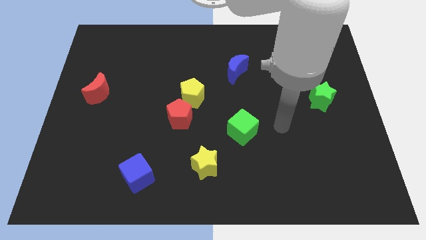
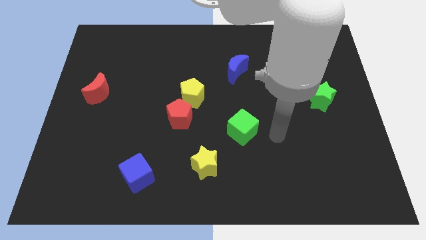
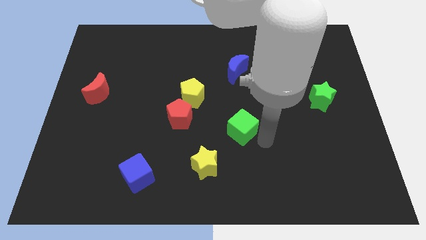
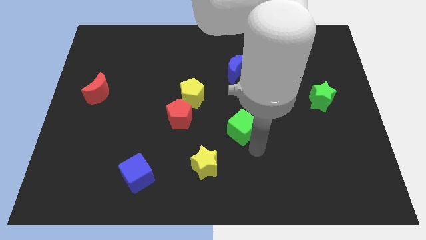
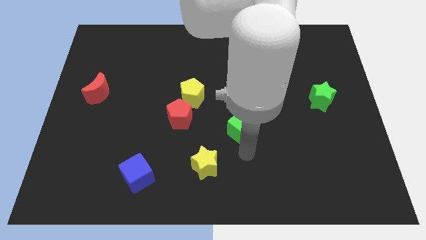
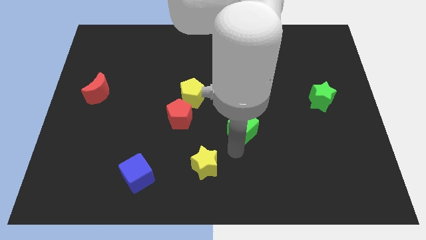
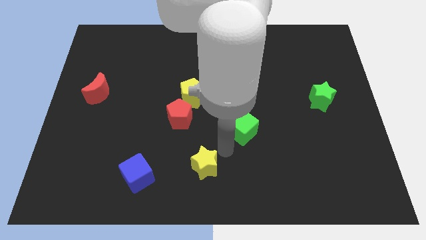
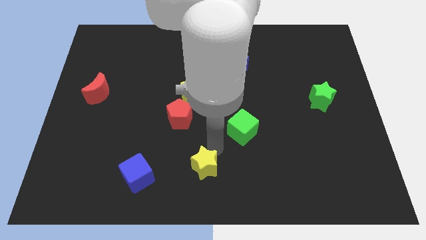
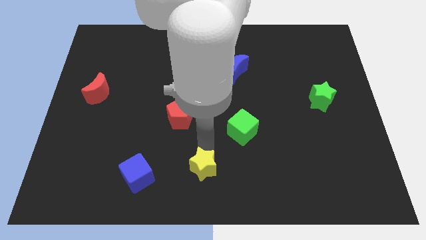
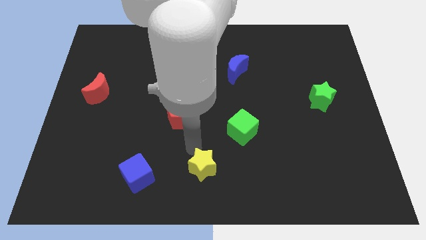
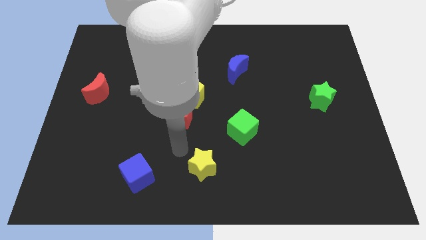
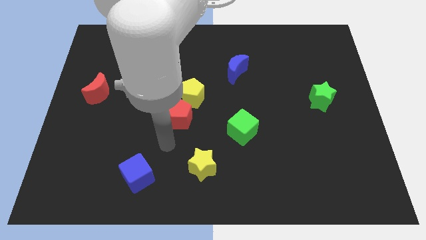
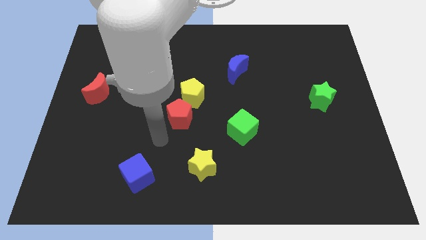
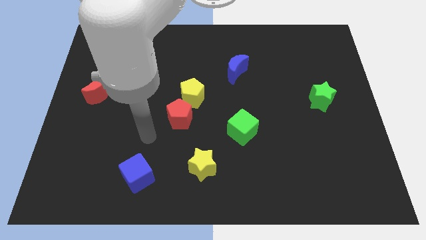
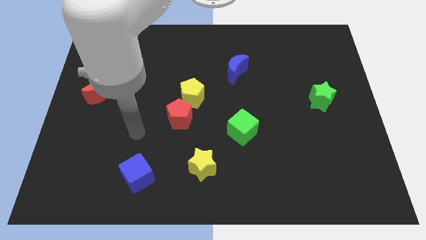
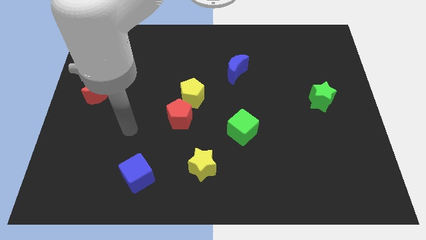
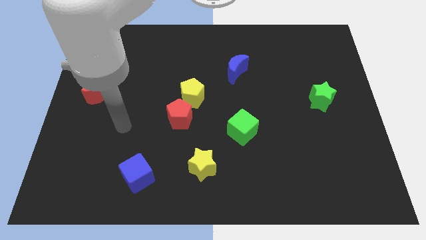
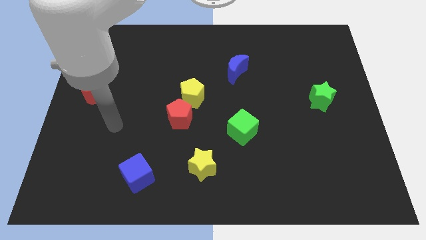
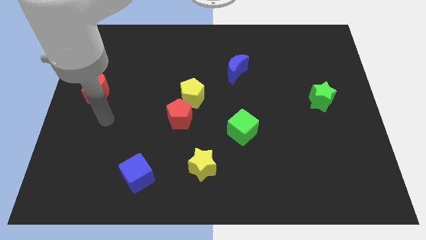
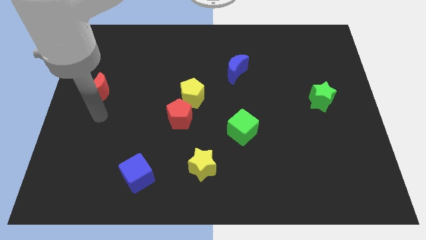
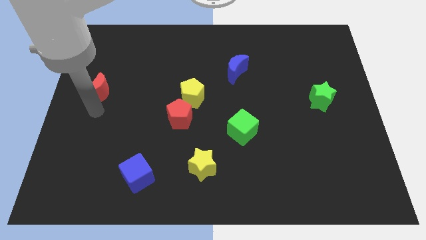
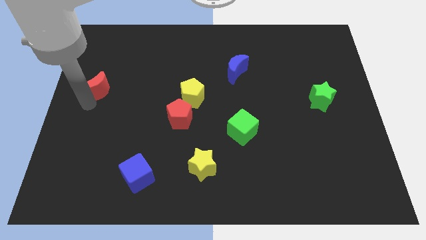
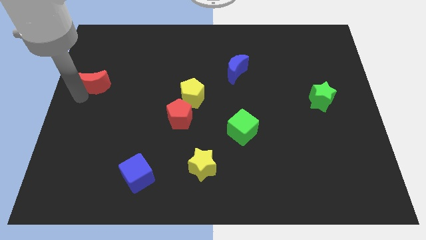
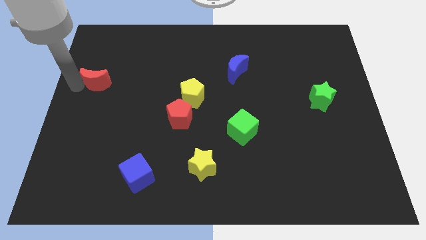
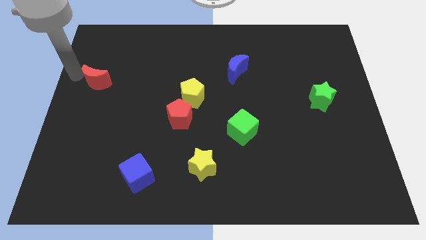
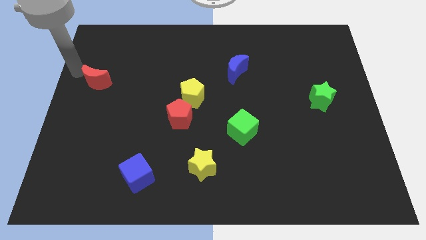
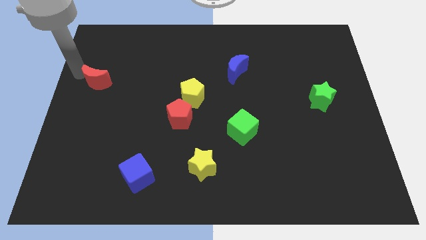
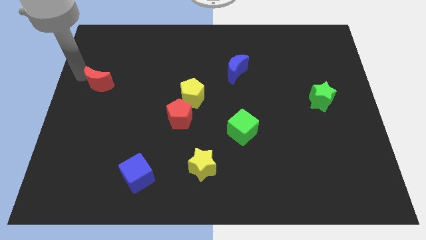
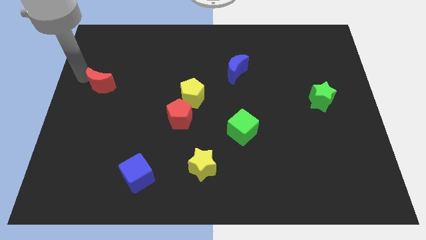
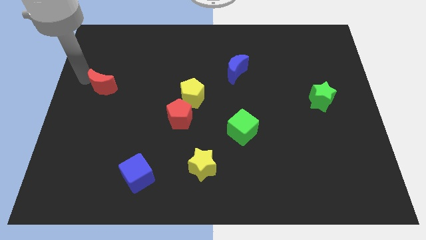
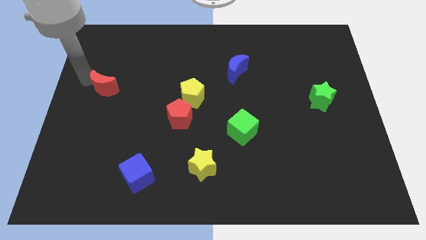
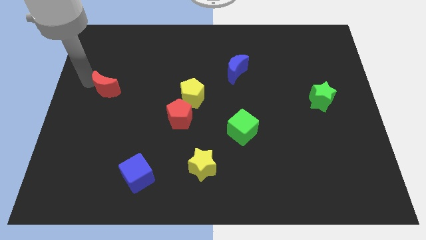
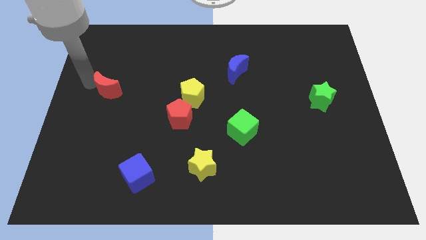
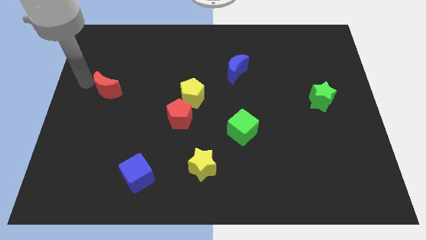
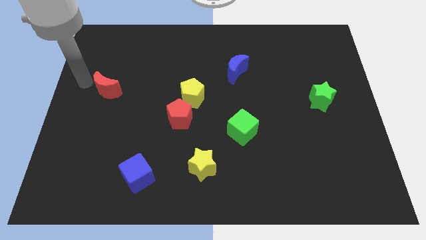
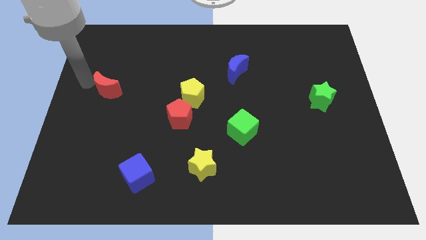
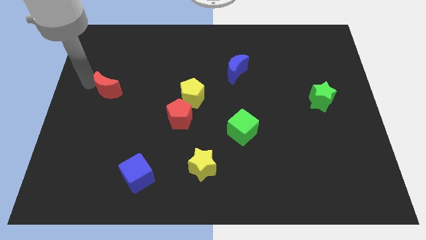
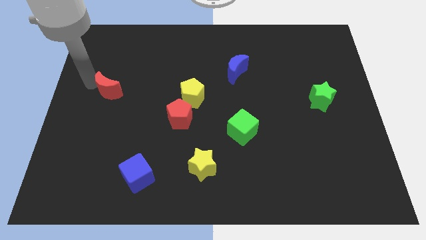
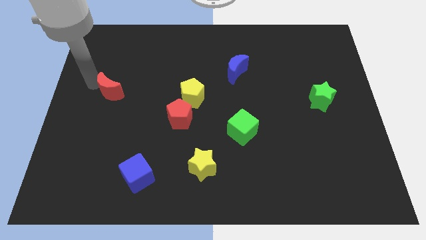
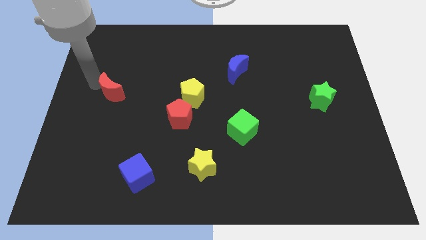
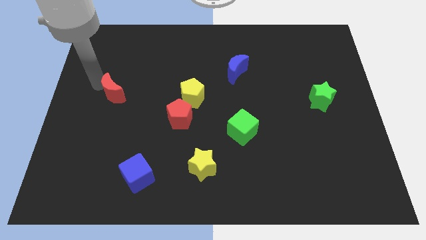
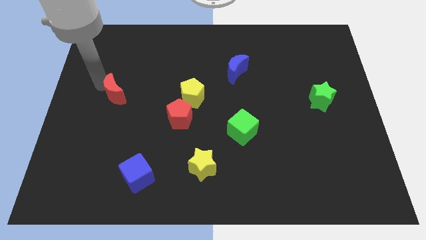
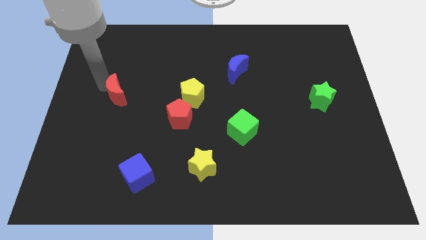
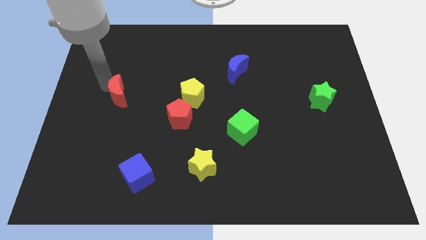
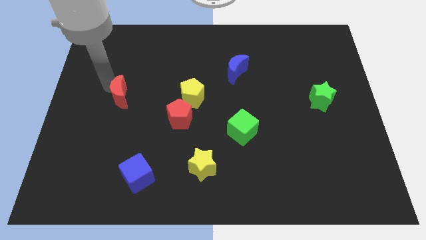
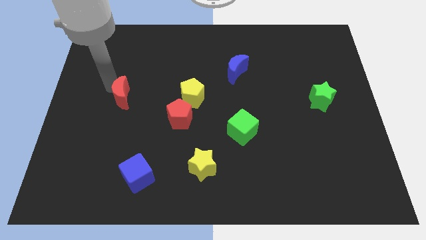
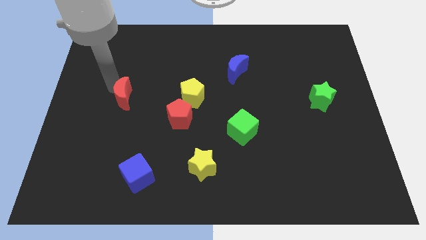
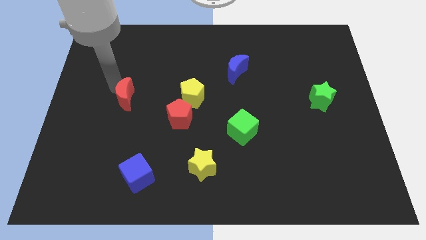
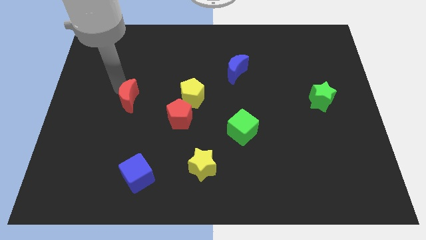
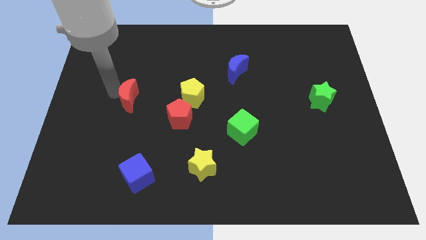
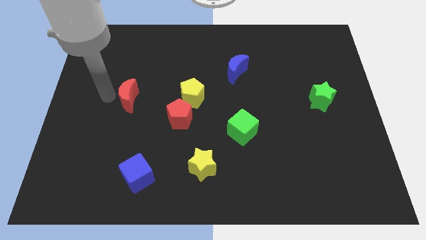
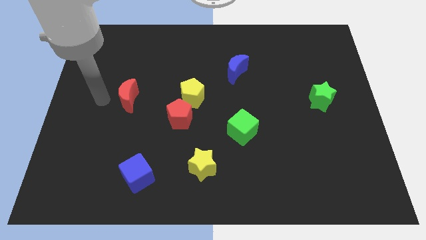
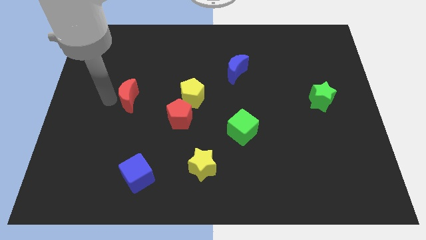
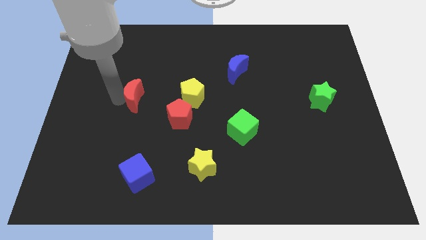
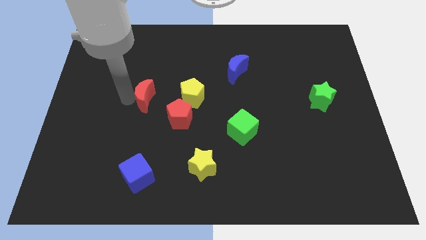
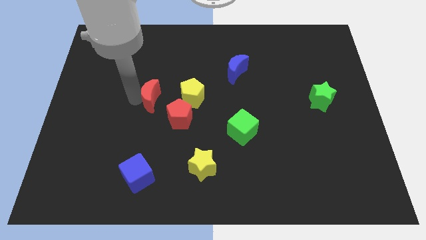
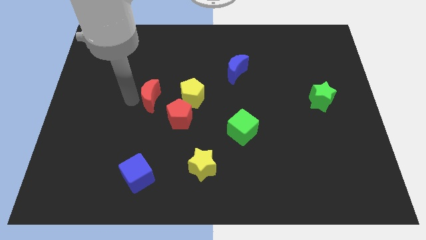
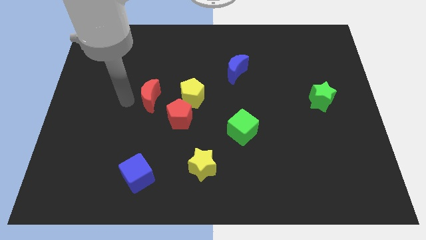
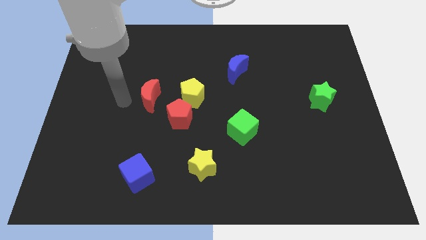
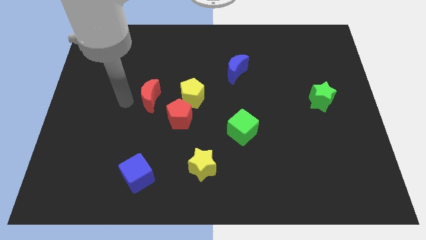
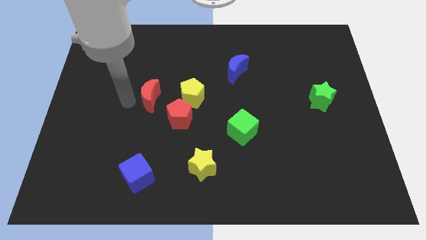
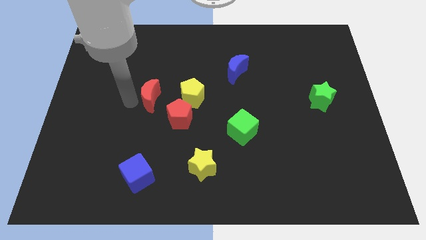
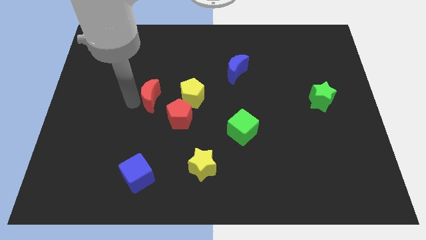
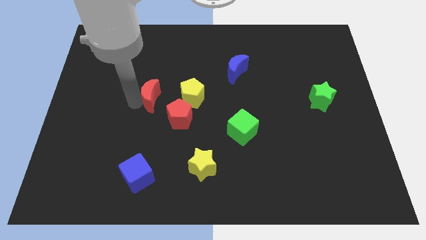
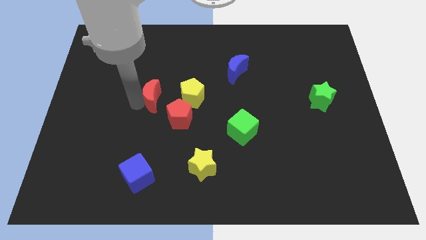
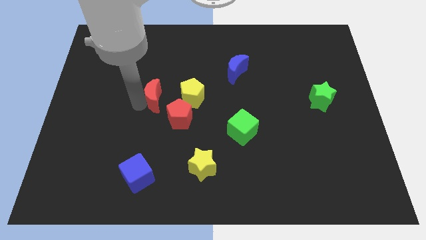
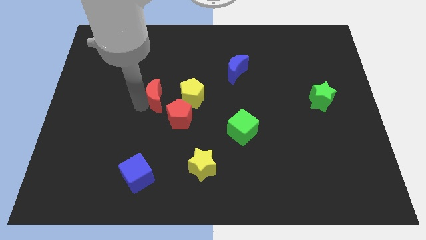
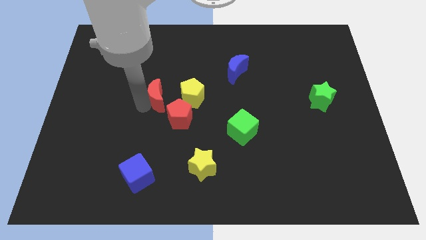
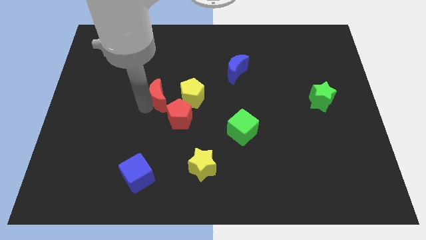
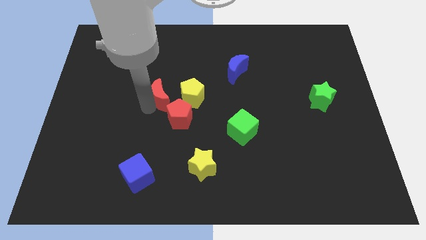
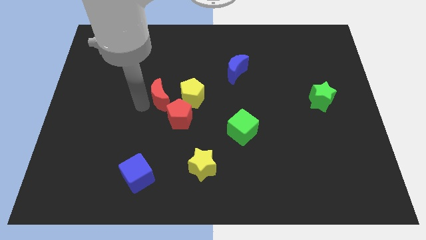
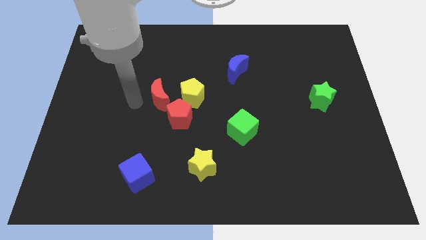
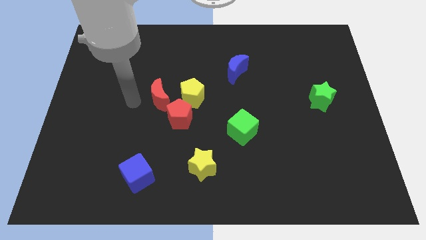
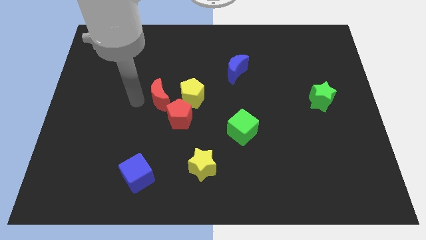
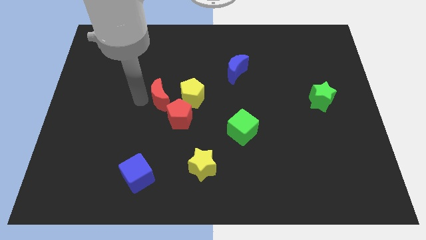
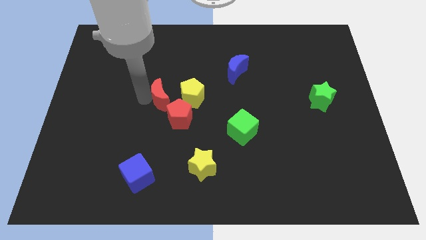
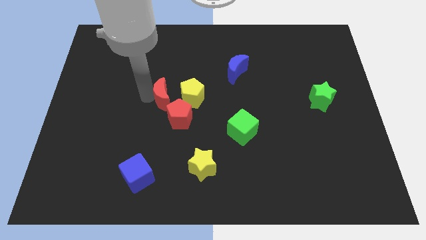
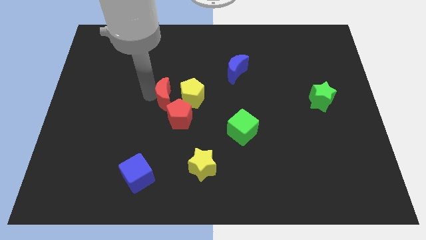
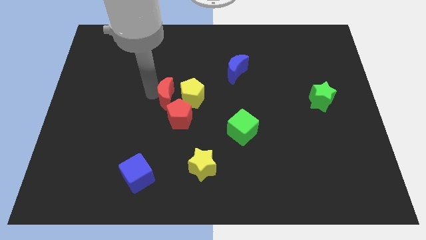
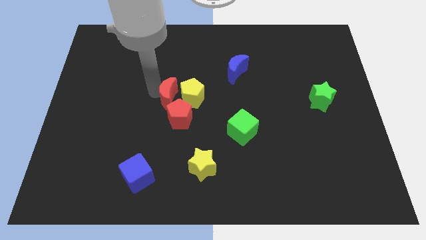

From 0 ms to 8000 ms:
put the red moon close to the yellow pentagon
